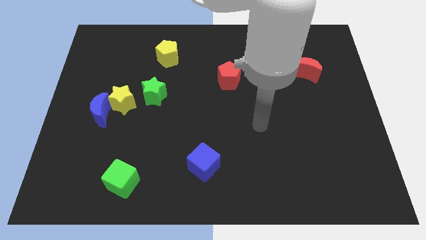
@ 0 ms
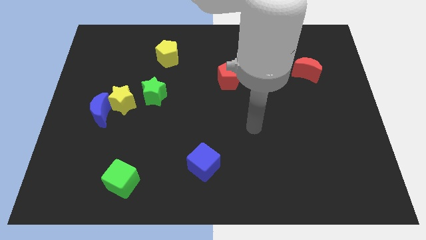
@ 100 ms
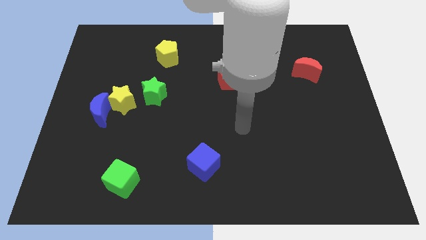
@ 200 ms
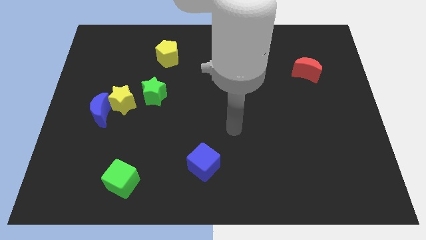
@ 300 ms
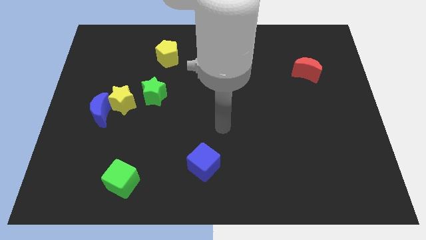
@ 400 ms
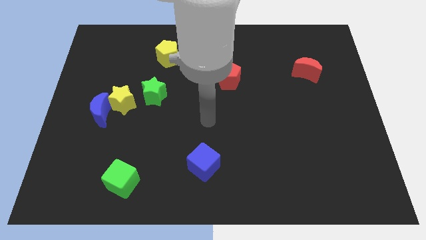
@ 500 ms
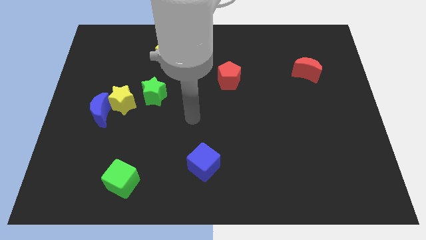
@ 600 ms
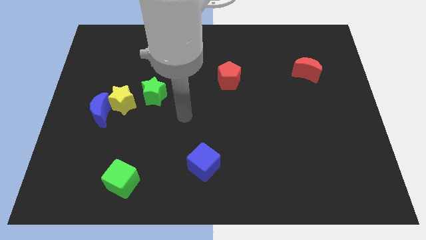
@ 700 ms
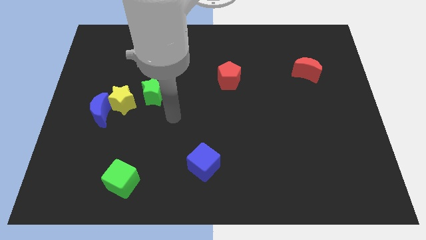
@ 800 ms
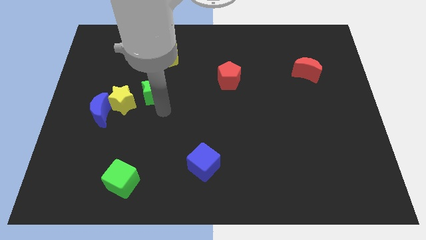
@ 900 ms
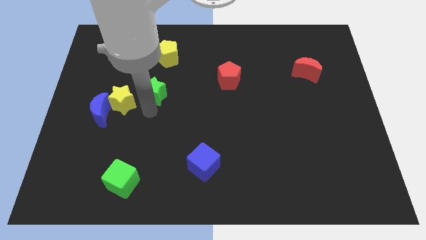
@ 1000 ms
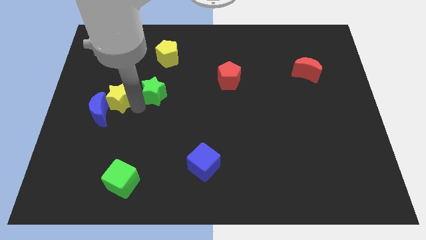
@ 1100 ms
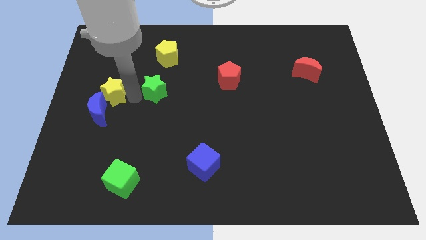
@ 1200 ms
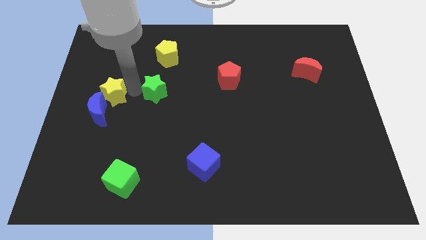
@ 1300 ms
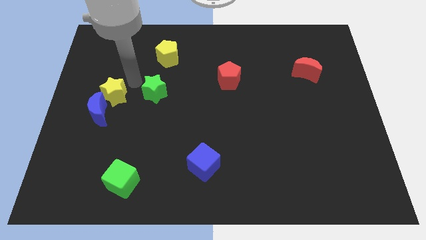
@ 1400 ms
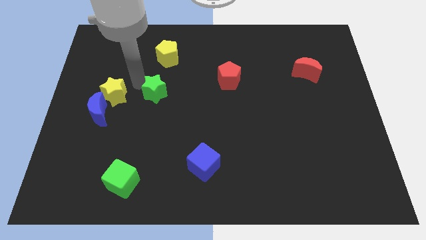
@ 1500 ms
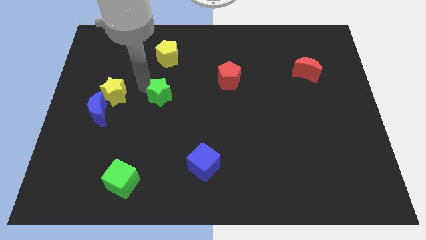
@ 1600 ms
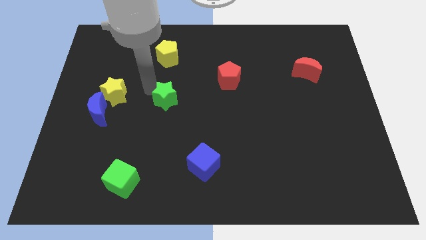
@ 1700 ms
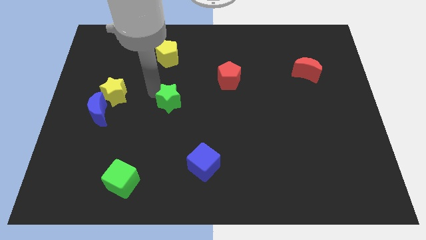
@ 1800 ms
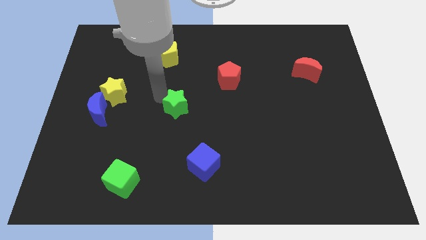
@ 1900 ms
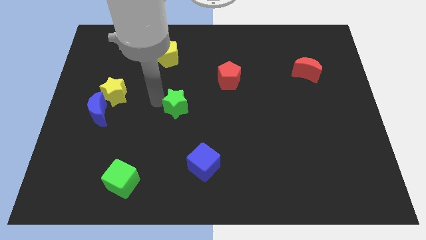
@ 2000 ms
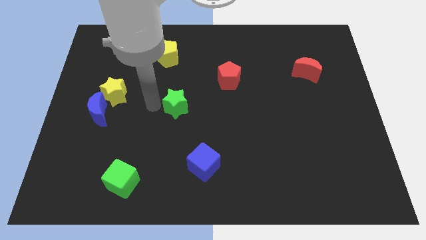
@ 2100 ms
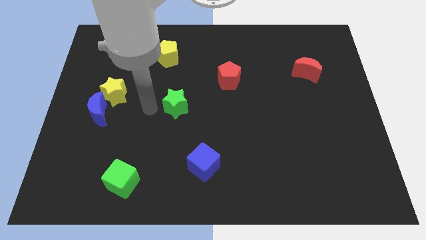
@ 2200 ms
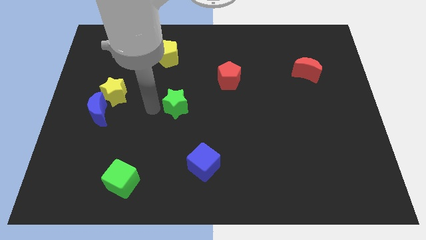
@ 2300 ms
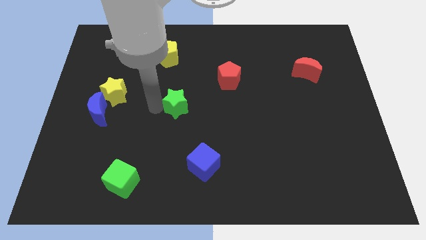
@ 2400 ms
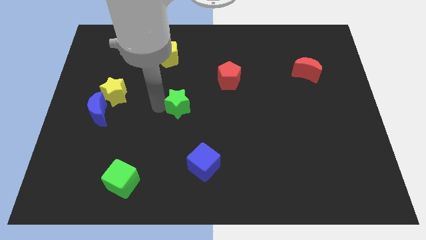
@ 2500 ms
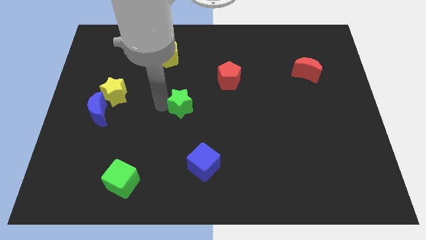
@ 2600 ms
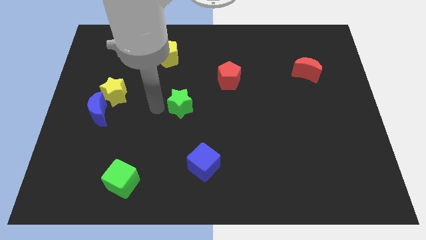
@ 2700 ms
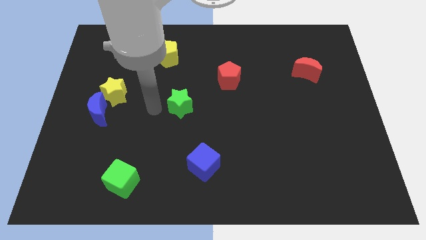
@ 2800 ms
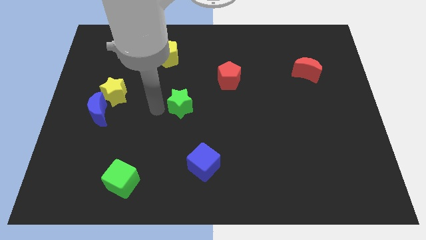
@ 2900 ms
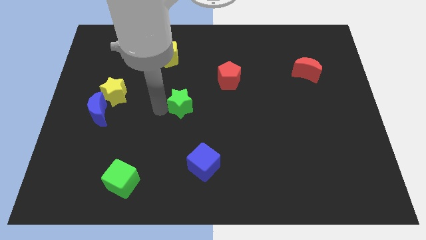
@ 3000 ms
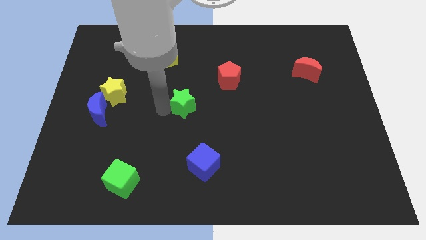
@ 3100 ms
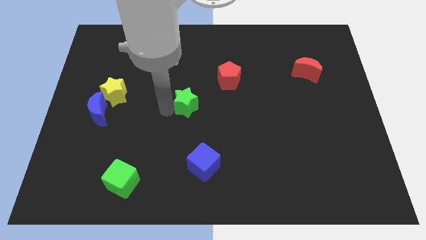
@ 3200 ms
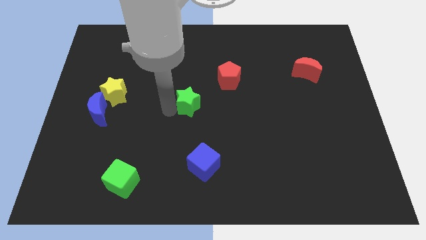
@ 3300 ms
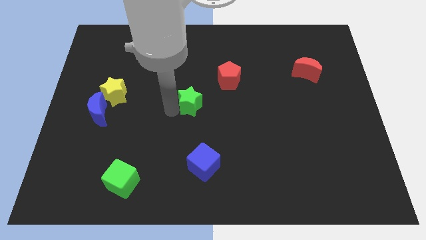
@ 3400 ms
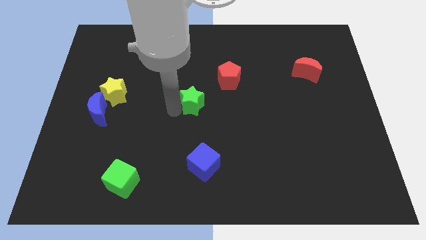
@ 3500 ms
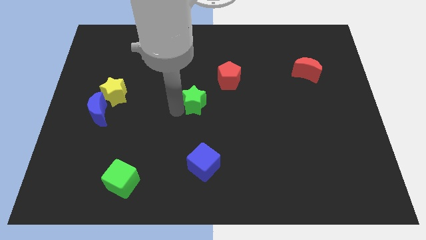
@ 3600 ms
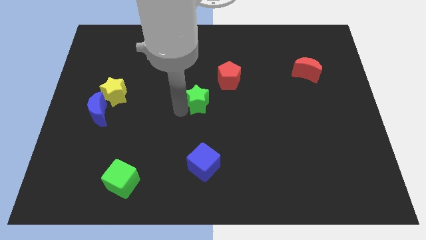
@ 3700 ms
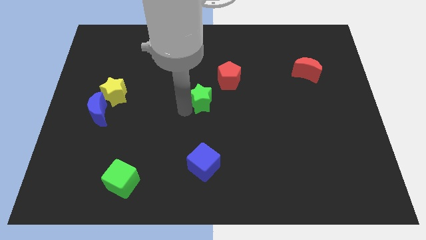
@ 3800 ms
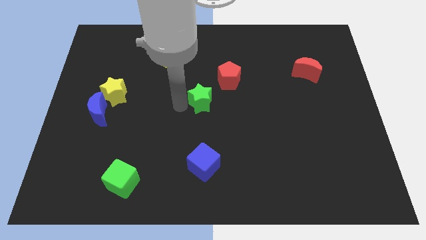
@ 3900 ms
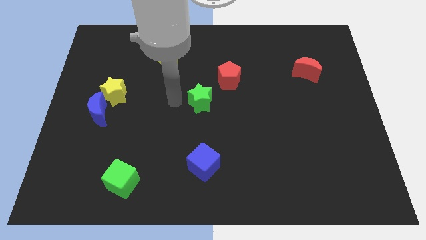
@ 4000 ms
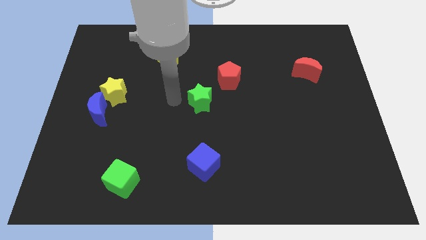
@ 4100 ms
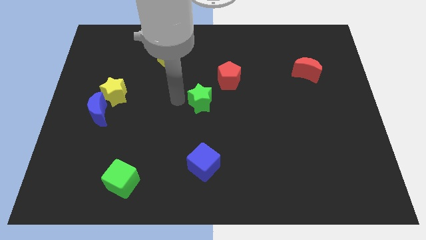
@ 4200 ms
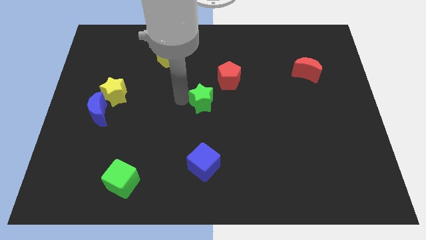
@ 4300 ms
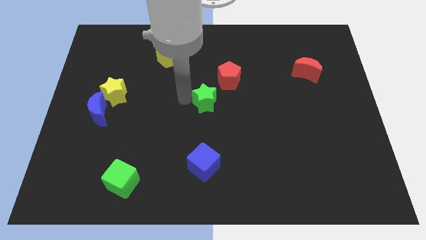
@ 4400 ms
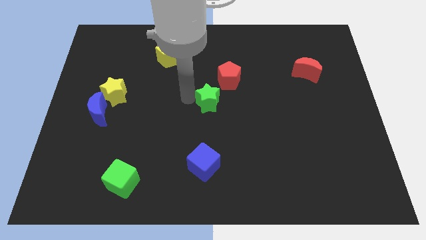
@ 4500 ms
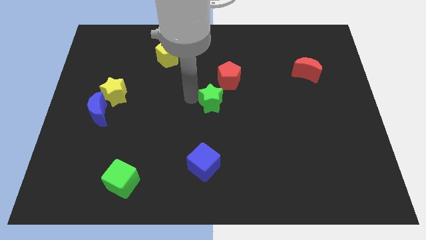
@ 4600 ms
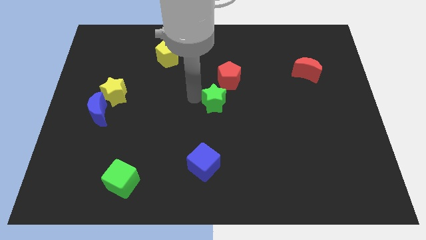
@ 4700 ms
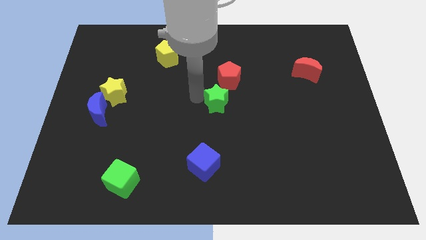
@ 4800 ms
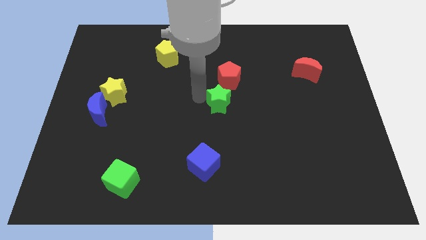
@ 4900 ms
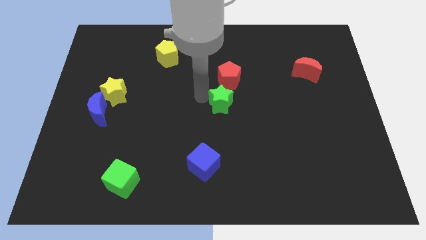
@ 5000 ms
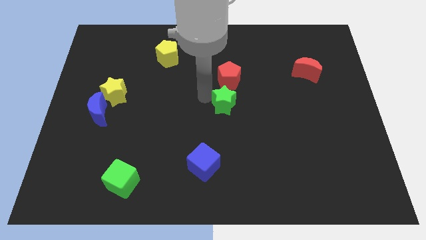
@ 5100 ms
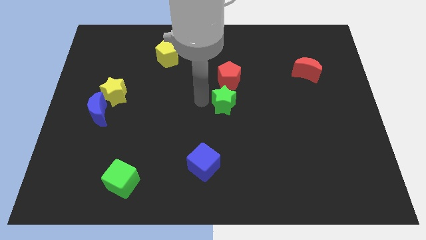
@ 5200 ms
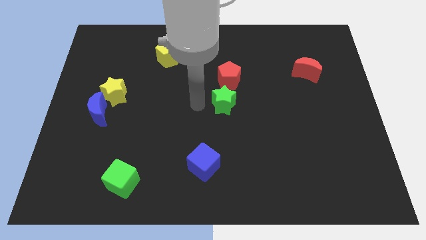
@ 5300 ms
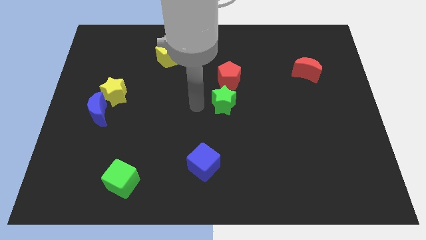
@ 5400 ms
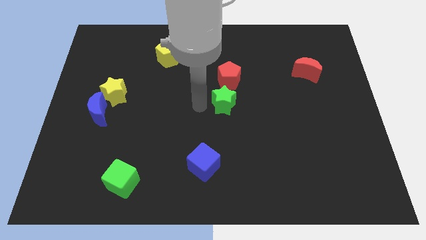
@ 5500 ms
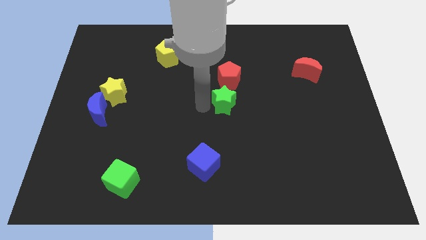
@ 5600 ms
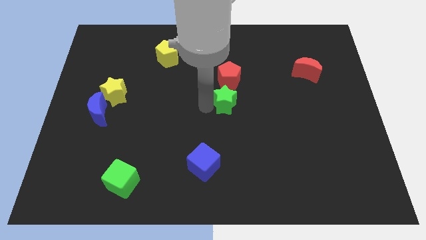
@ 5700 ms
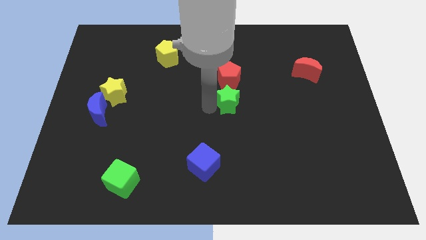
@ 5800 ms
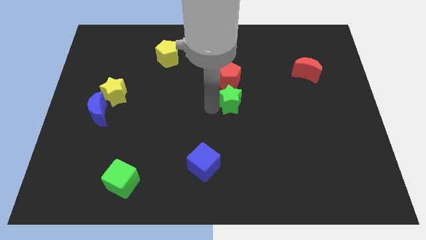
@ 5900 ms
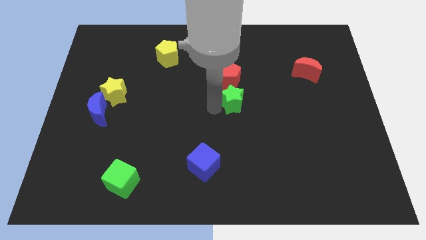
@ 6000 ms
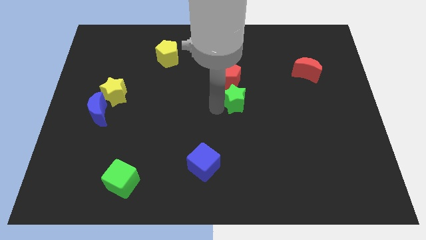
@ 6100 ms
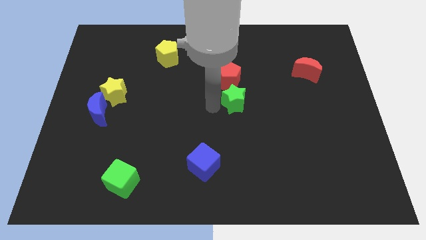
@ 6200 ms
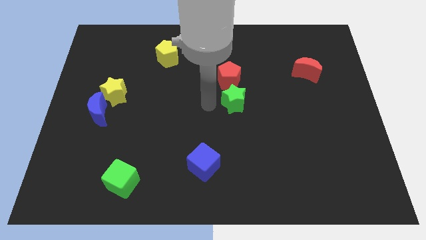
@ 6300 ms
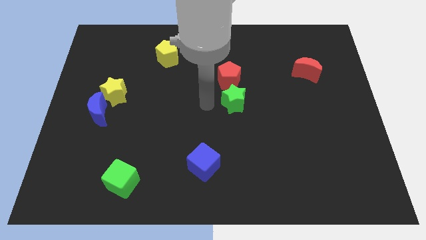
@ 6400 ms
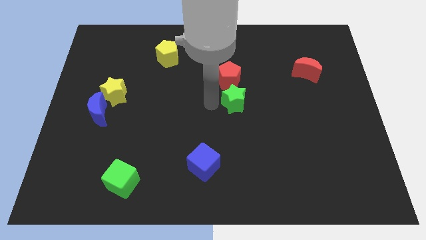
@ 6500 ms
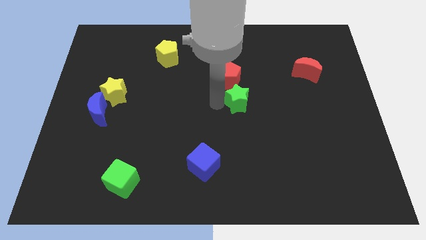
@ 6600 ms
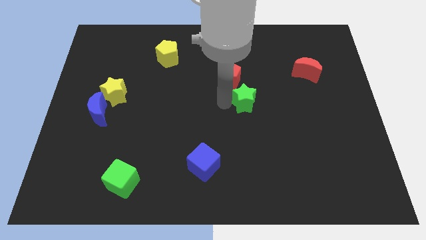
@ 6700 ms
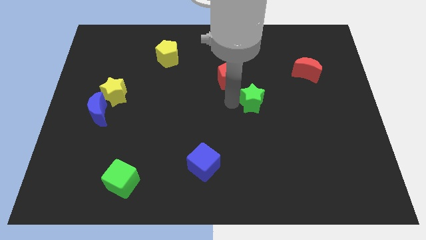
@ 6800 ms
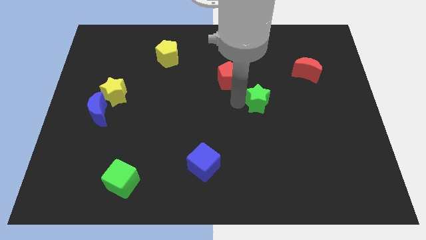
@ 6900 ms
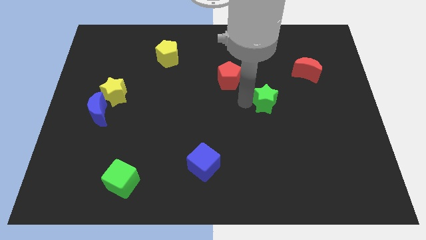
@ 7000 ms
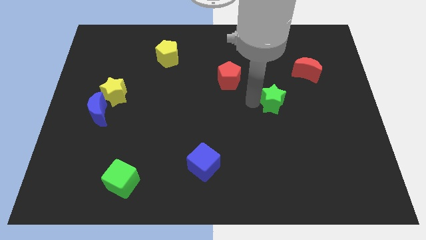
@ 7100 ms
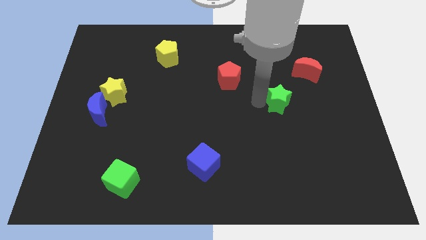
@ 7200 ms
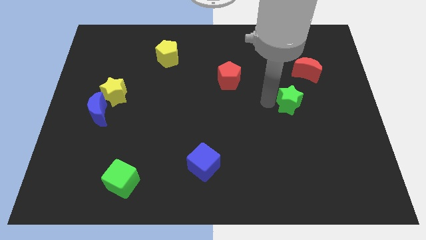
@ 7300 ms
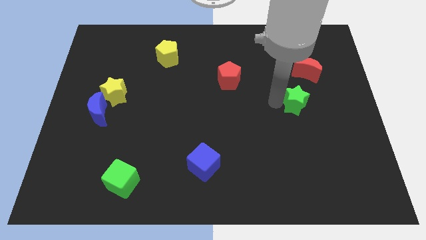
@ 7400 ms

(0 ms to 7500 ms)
move the green star to the bottom of the red moon
